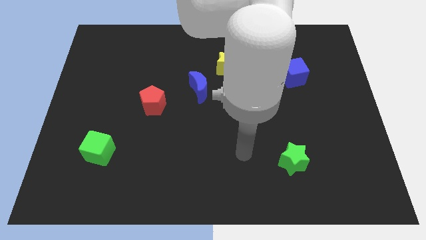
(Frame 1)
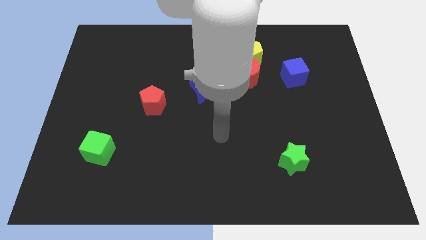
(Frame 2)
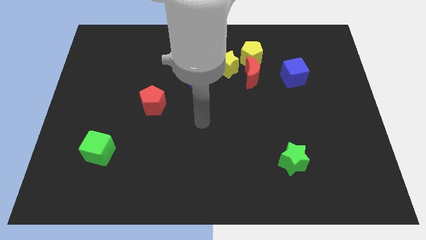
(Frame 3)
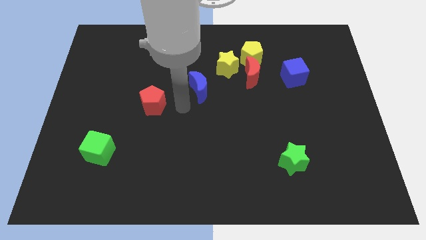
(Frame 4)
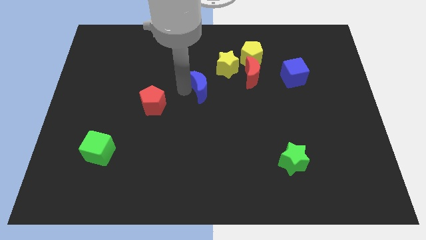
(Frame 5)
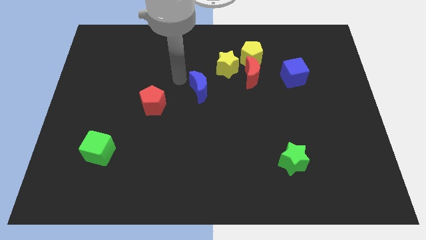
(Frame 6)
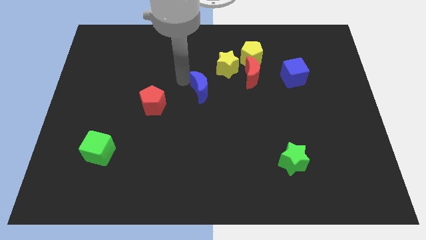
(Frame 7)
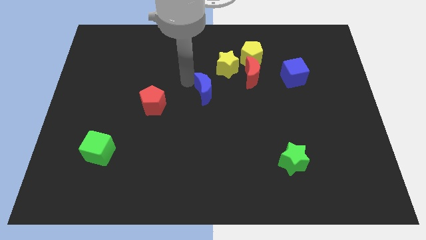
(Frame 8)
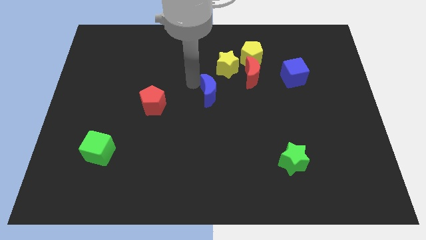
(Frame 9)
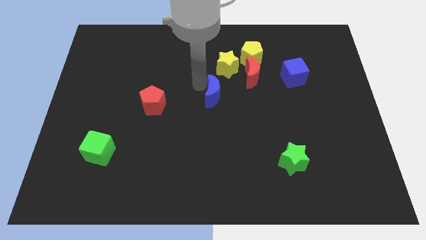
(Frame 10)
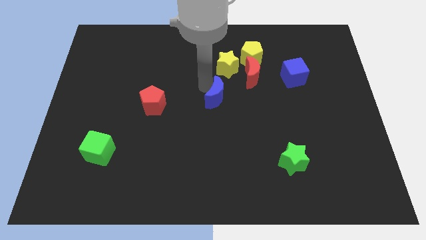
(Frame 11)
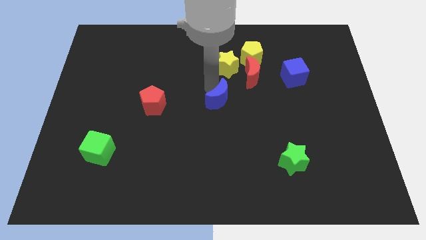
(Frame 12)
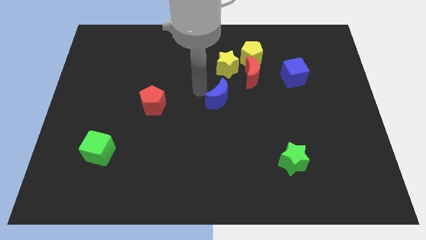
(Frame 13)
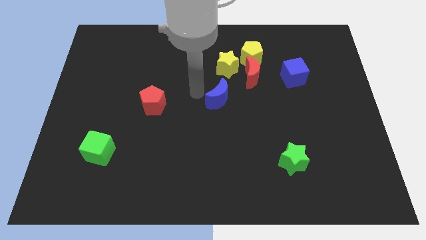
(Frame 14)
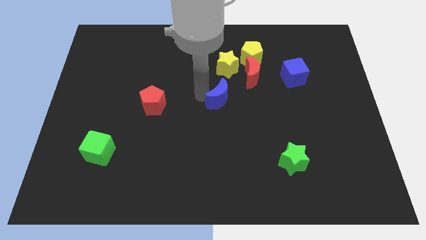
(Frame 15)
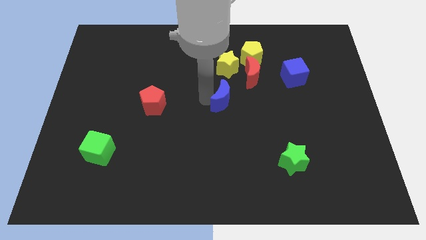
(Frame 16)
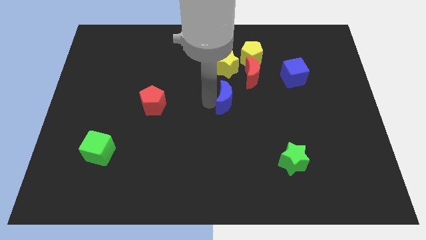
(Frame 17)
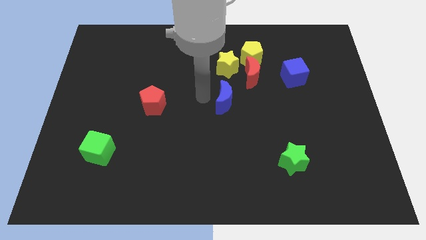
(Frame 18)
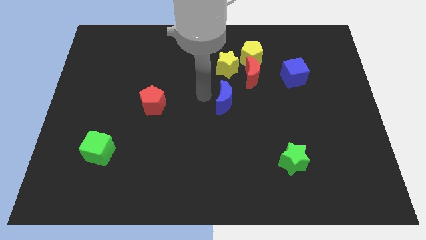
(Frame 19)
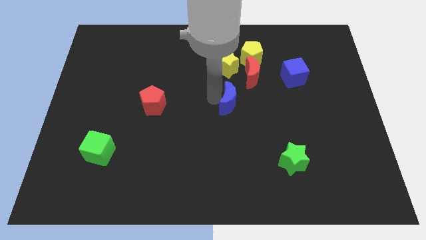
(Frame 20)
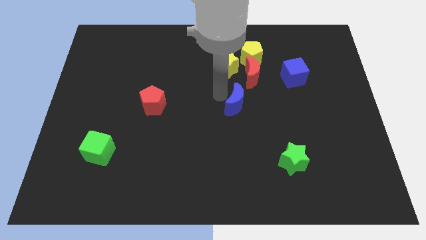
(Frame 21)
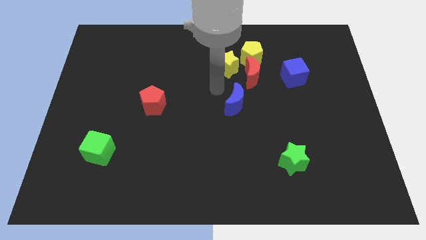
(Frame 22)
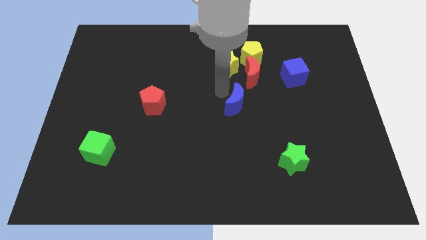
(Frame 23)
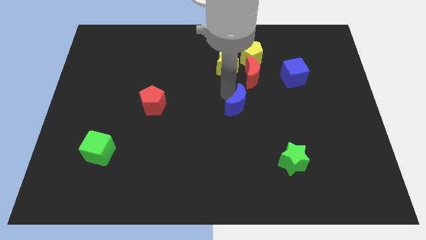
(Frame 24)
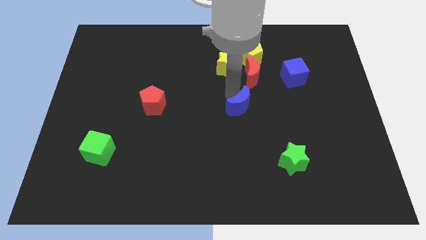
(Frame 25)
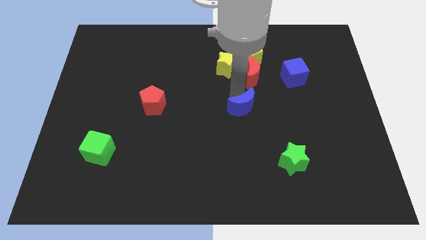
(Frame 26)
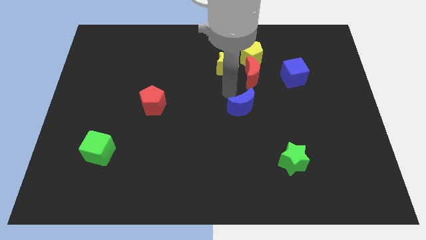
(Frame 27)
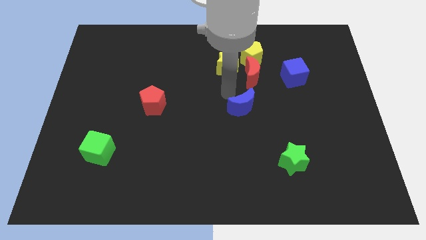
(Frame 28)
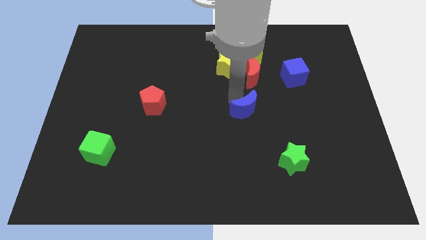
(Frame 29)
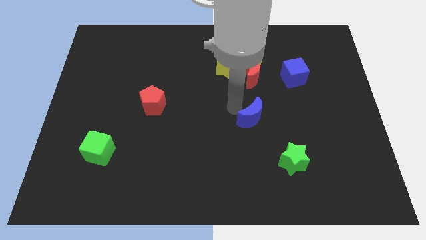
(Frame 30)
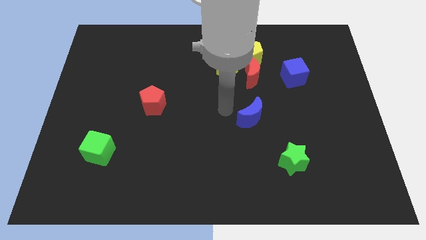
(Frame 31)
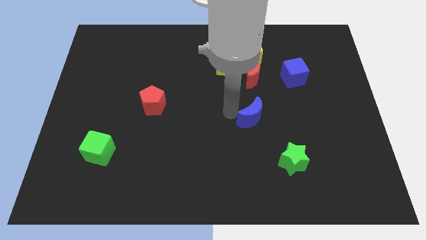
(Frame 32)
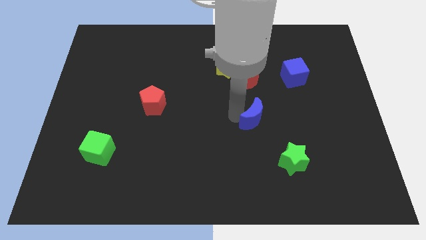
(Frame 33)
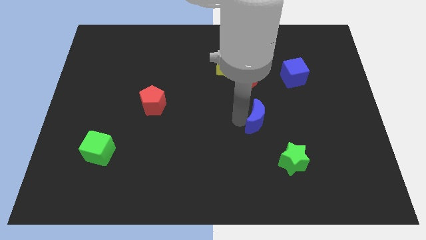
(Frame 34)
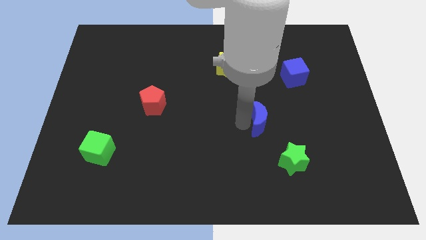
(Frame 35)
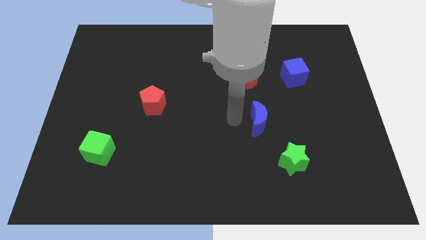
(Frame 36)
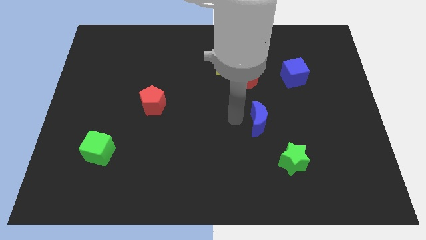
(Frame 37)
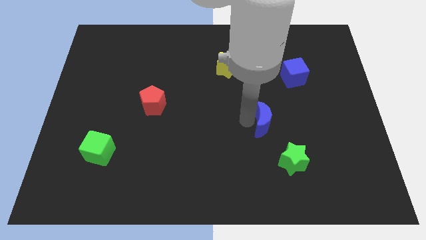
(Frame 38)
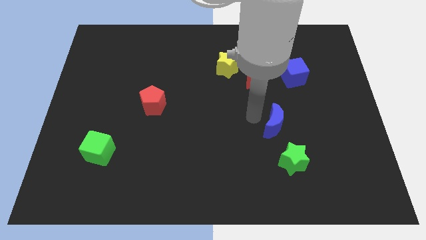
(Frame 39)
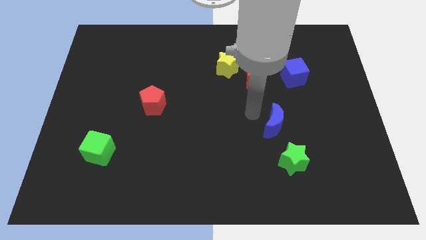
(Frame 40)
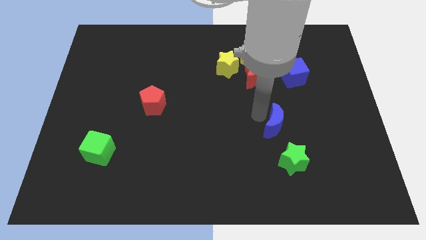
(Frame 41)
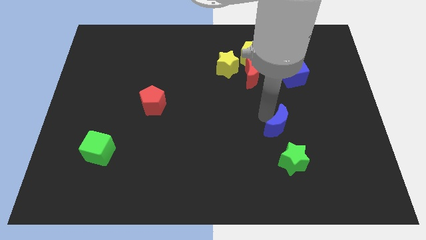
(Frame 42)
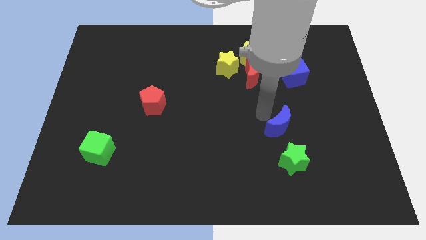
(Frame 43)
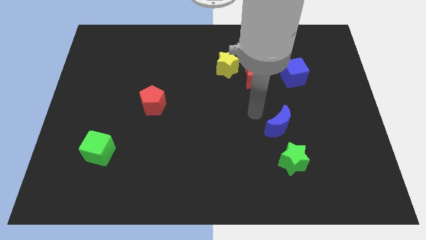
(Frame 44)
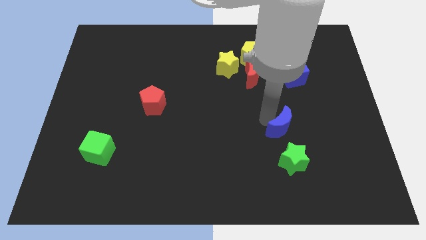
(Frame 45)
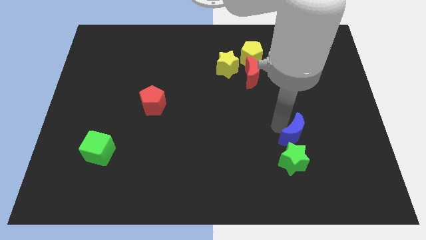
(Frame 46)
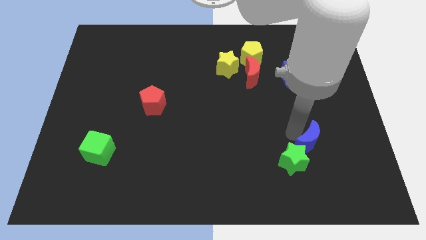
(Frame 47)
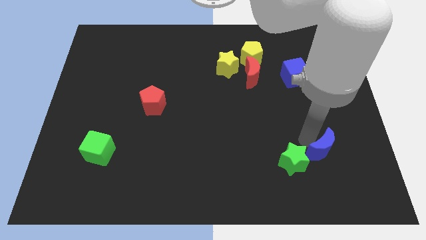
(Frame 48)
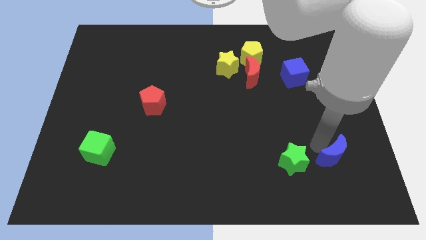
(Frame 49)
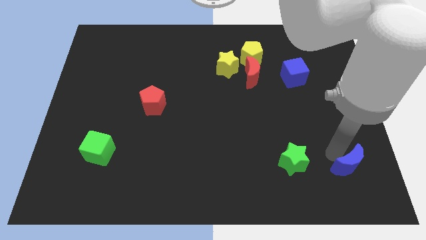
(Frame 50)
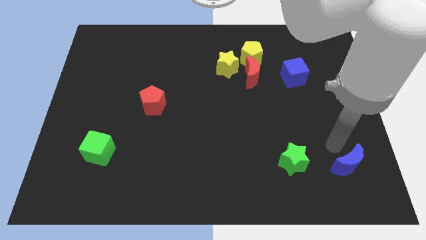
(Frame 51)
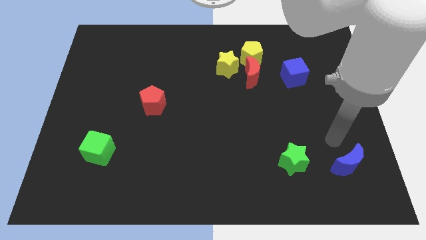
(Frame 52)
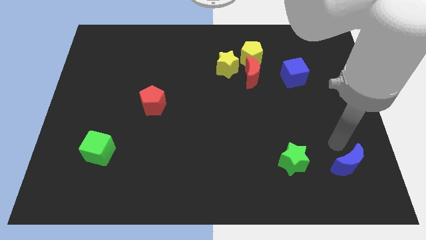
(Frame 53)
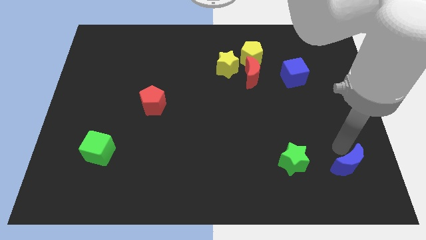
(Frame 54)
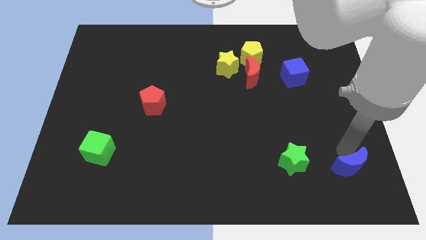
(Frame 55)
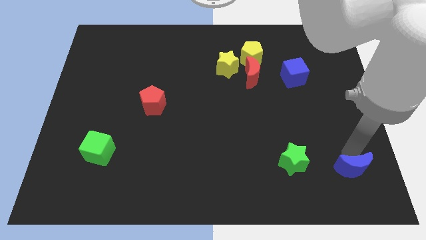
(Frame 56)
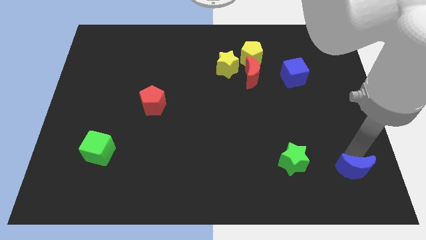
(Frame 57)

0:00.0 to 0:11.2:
move the blue moon to the bottom right
